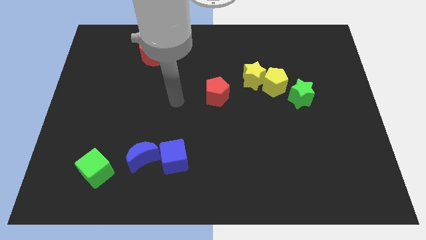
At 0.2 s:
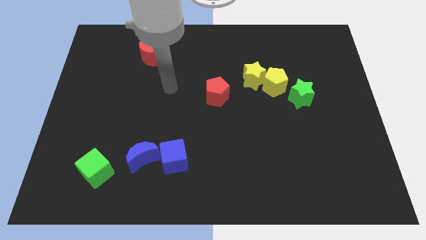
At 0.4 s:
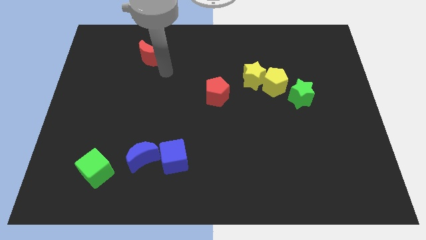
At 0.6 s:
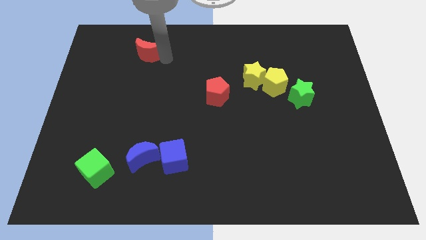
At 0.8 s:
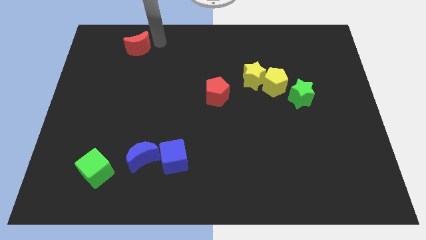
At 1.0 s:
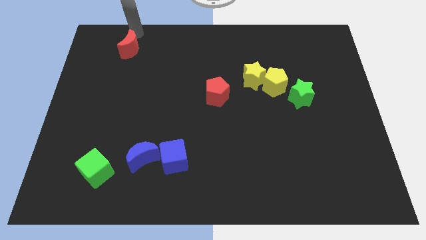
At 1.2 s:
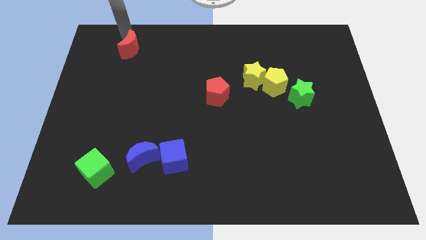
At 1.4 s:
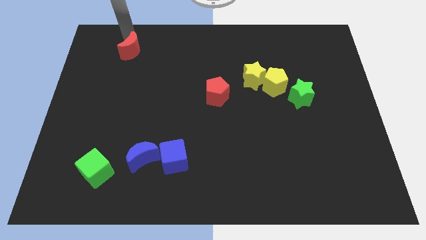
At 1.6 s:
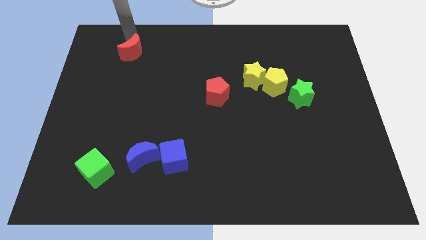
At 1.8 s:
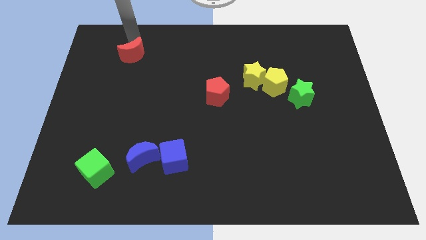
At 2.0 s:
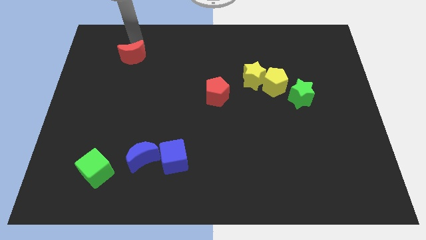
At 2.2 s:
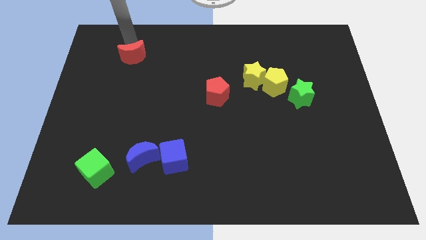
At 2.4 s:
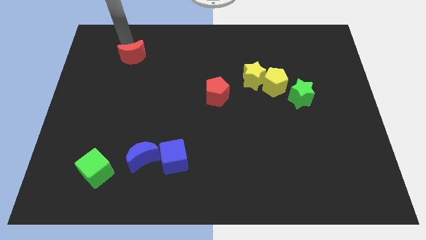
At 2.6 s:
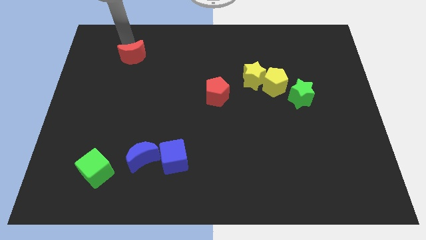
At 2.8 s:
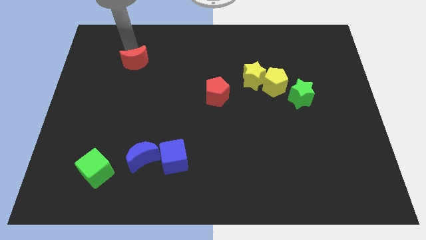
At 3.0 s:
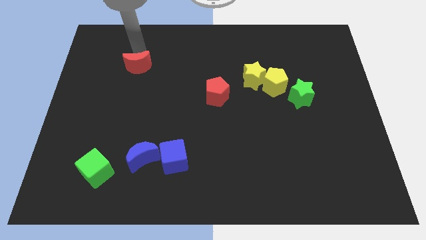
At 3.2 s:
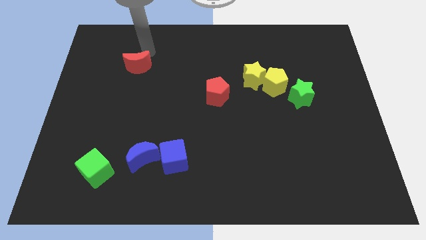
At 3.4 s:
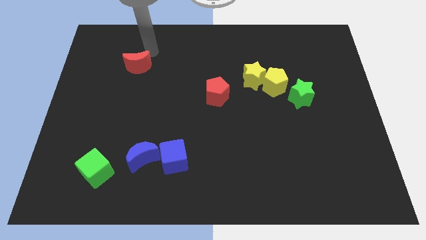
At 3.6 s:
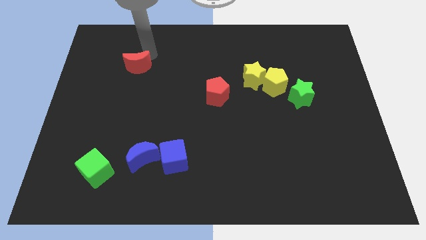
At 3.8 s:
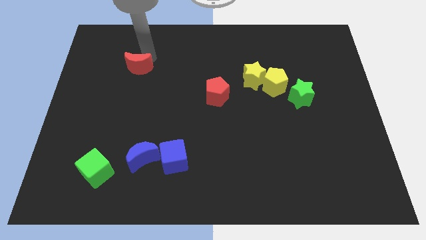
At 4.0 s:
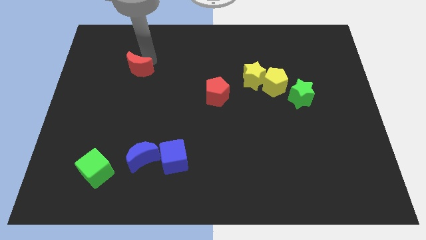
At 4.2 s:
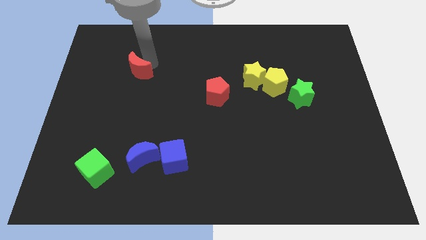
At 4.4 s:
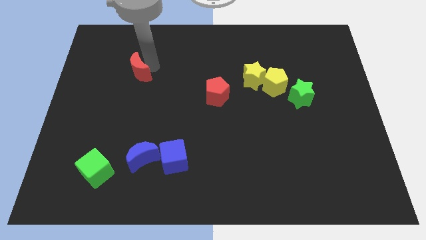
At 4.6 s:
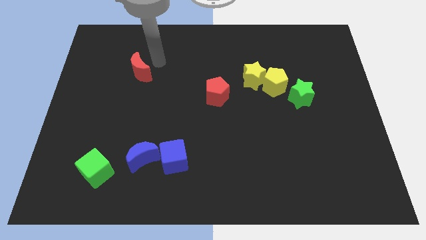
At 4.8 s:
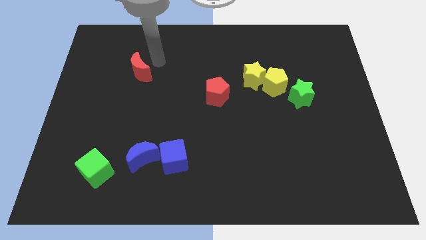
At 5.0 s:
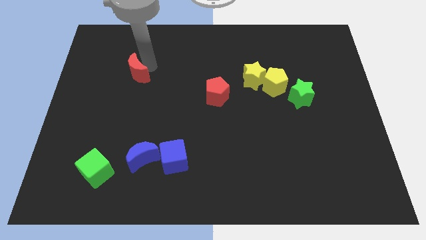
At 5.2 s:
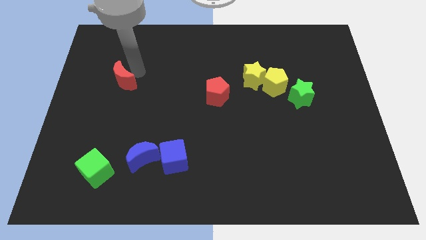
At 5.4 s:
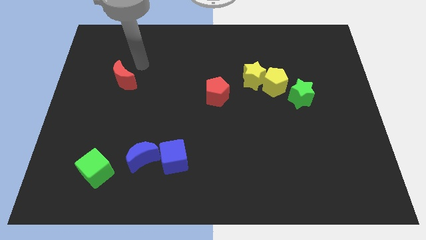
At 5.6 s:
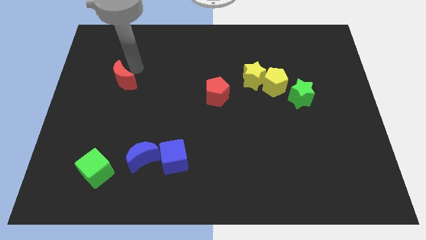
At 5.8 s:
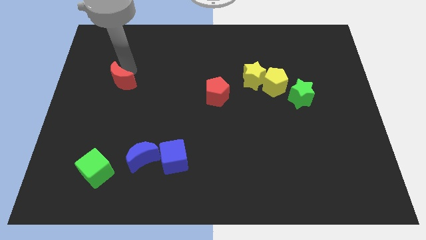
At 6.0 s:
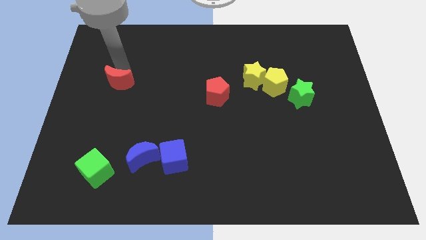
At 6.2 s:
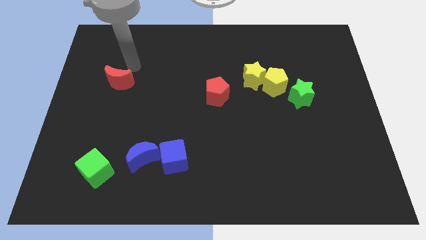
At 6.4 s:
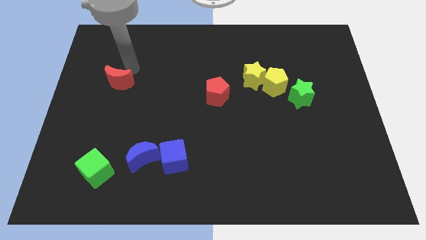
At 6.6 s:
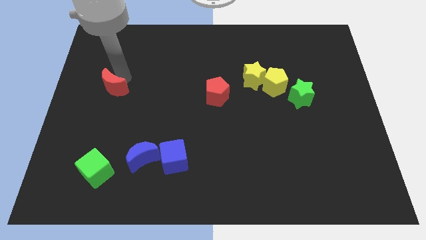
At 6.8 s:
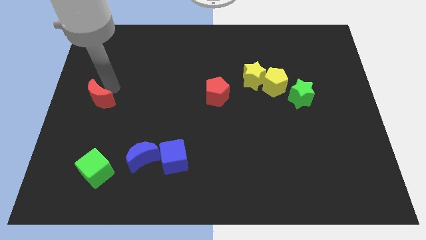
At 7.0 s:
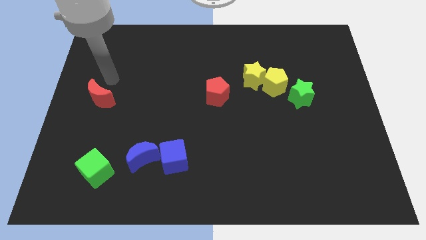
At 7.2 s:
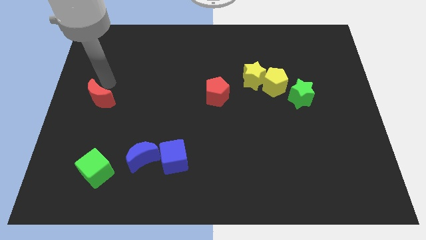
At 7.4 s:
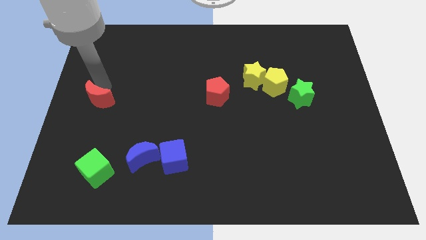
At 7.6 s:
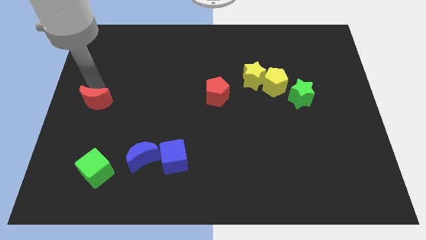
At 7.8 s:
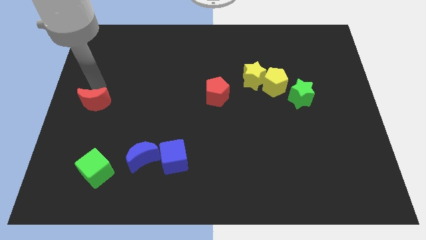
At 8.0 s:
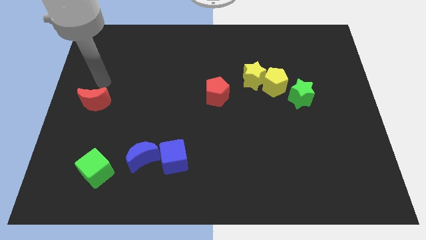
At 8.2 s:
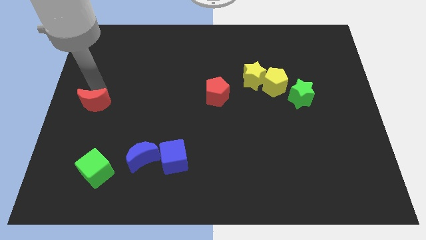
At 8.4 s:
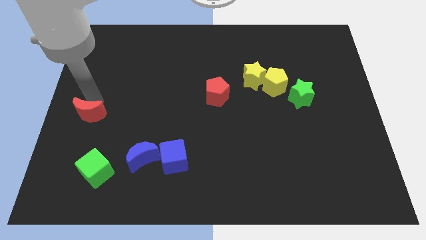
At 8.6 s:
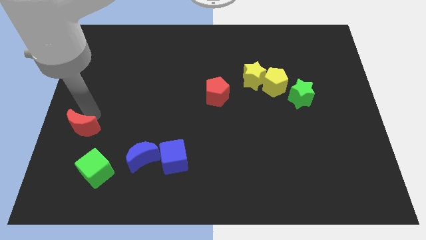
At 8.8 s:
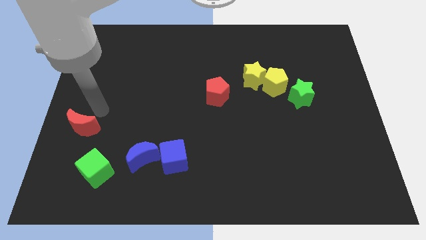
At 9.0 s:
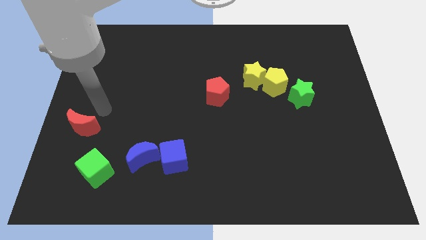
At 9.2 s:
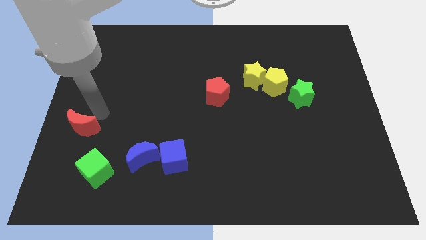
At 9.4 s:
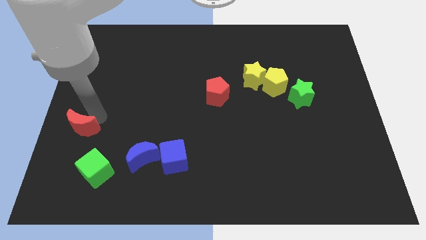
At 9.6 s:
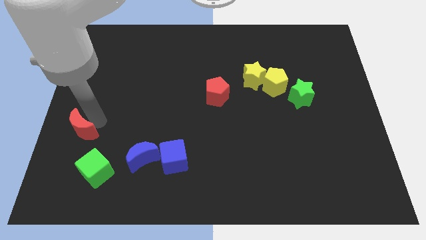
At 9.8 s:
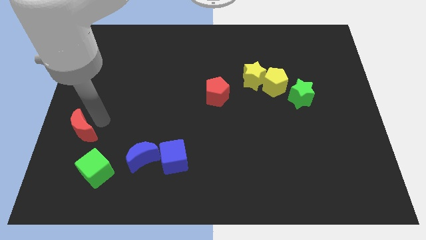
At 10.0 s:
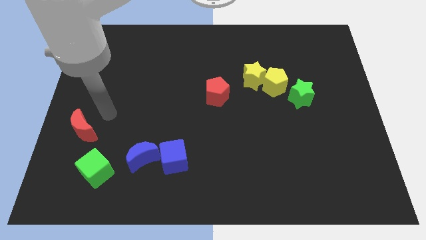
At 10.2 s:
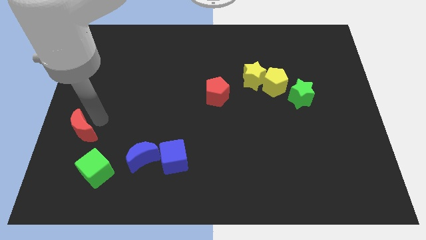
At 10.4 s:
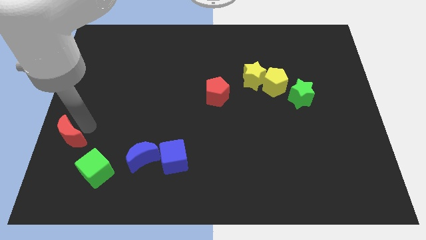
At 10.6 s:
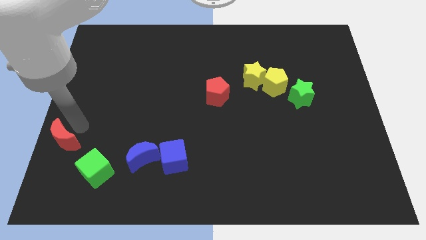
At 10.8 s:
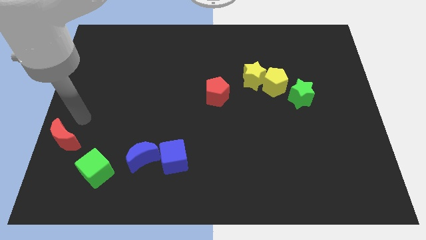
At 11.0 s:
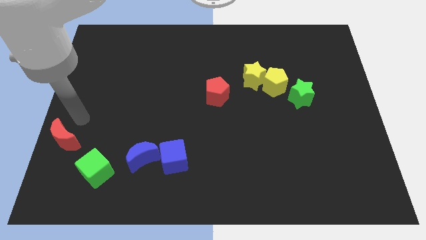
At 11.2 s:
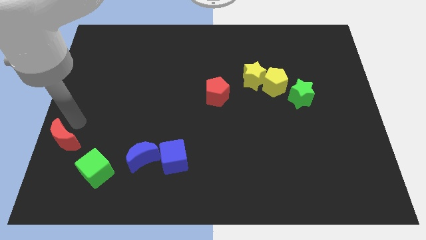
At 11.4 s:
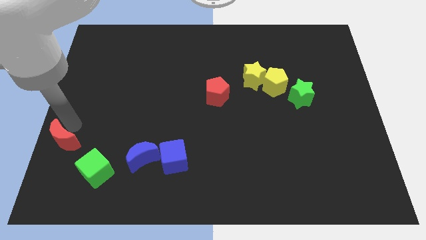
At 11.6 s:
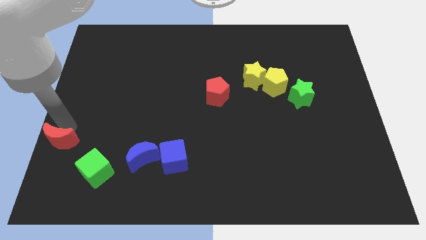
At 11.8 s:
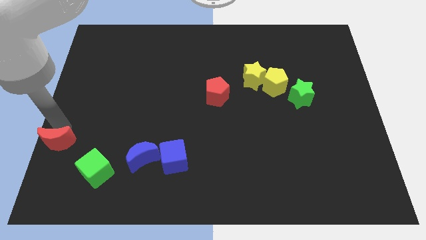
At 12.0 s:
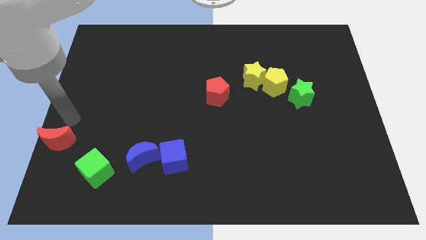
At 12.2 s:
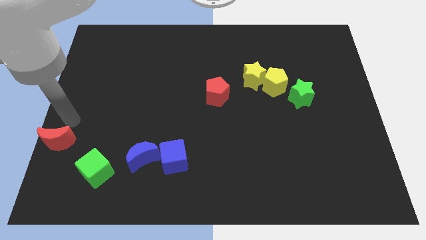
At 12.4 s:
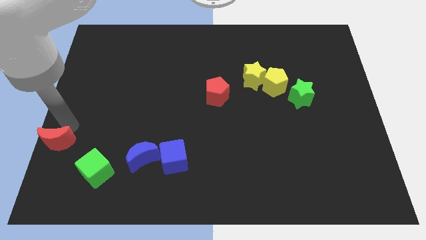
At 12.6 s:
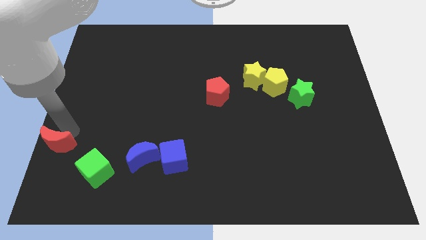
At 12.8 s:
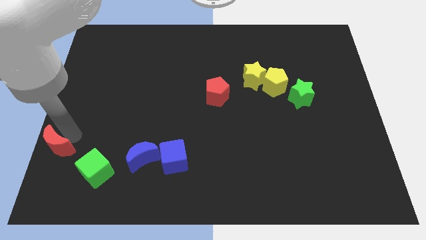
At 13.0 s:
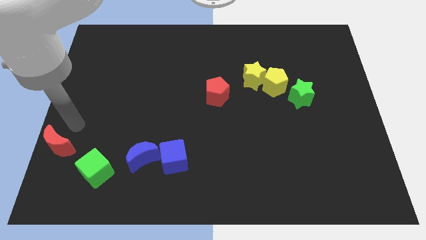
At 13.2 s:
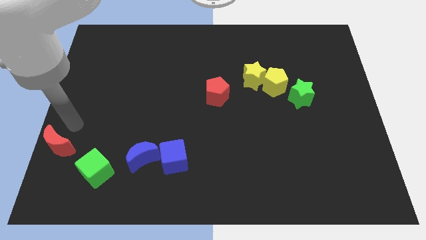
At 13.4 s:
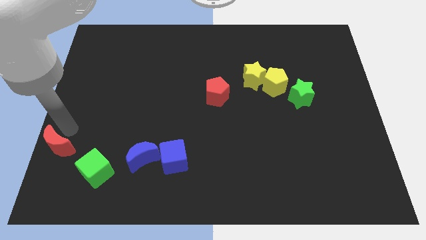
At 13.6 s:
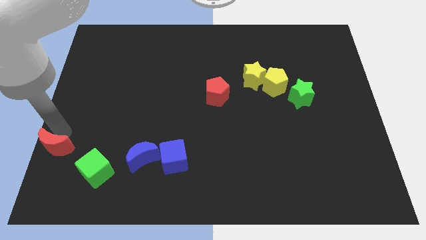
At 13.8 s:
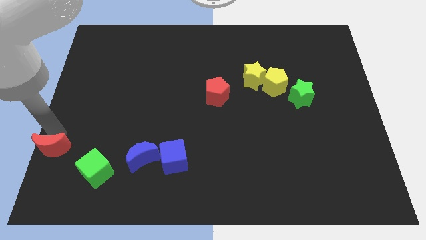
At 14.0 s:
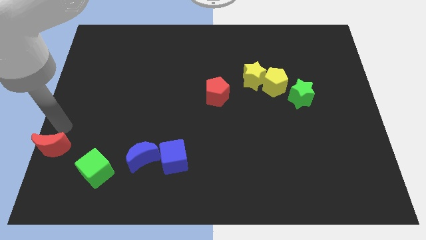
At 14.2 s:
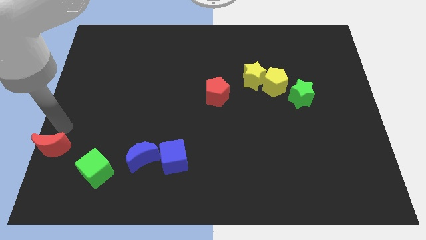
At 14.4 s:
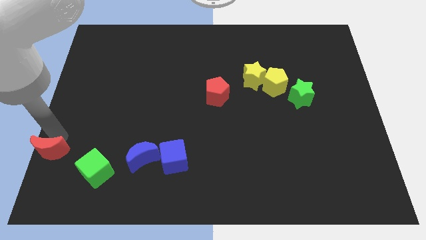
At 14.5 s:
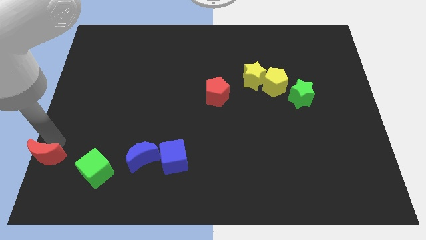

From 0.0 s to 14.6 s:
move the red moon to the lower left corner

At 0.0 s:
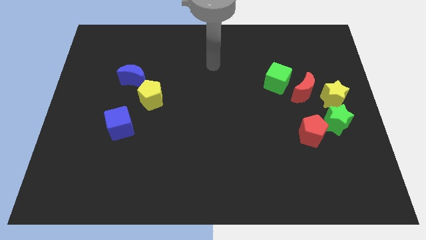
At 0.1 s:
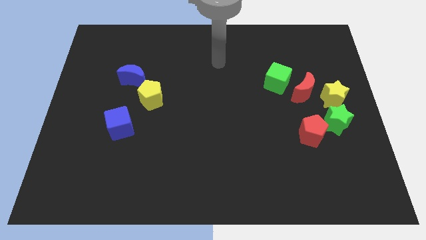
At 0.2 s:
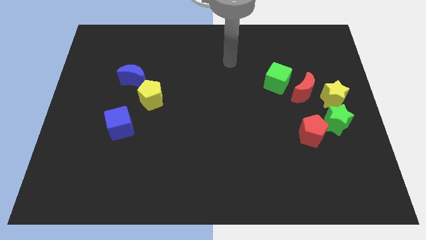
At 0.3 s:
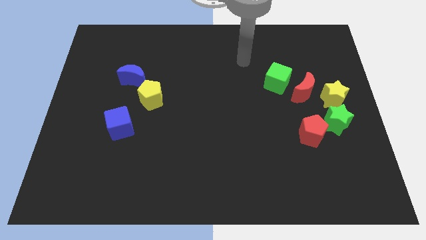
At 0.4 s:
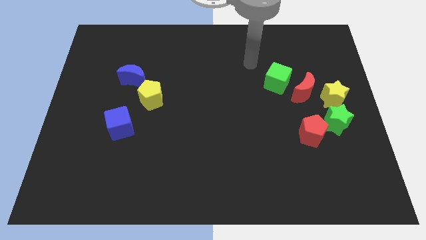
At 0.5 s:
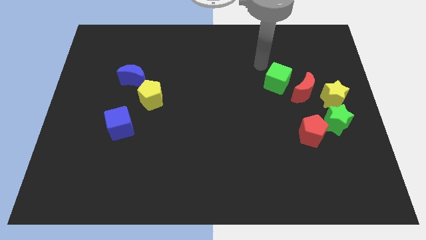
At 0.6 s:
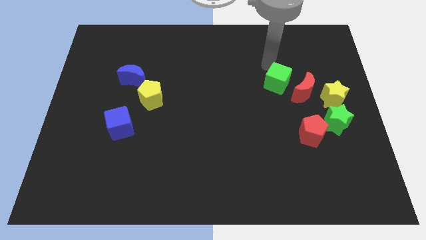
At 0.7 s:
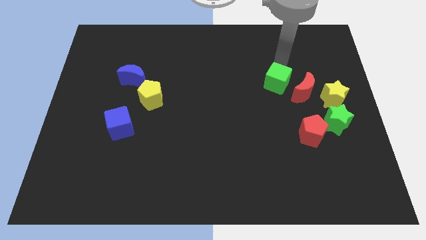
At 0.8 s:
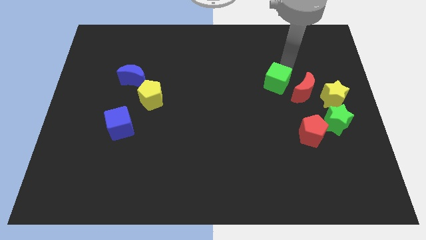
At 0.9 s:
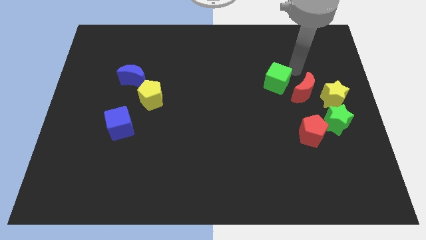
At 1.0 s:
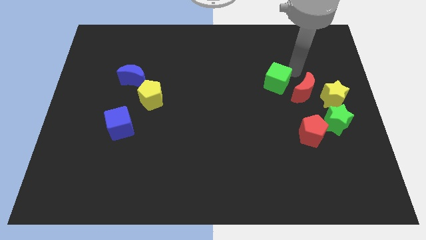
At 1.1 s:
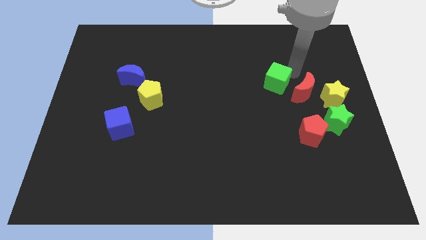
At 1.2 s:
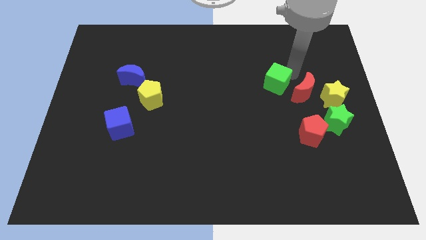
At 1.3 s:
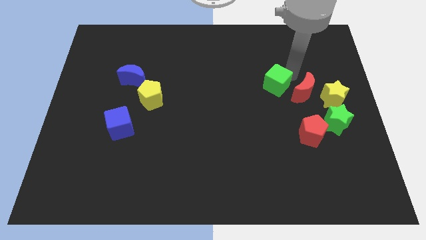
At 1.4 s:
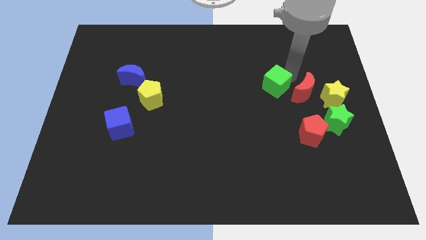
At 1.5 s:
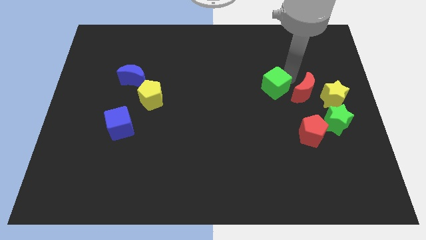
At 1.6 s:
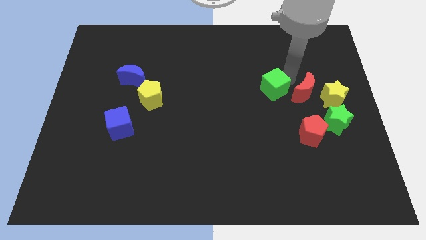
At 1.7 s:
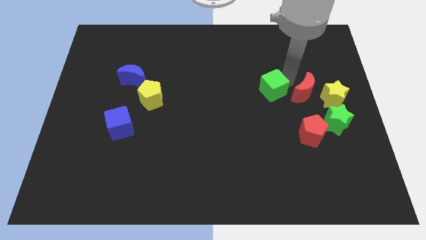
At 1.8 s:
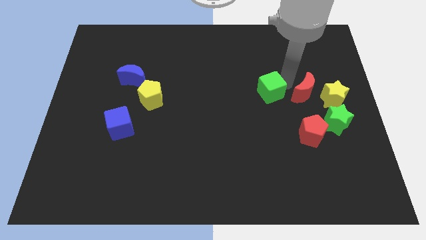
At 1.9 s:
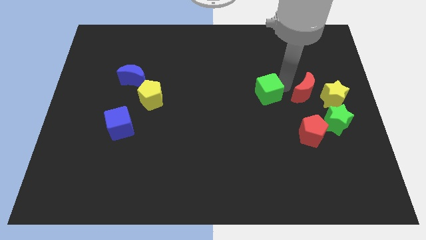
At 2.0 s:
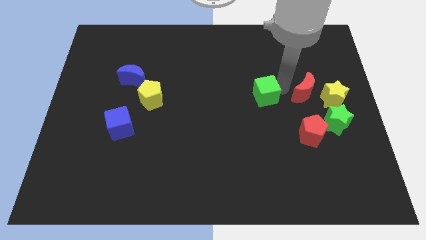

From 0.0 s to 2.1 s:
push the green cube to the center of the board
